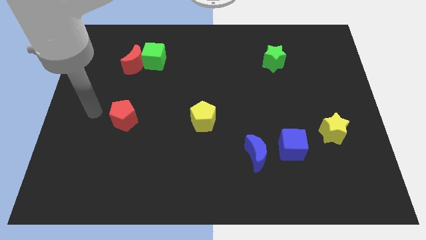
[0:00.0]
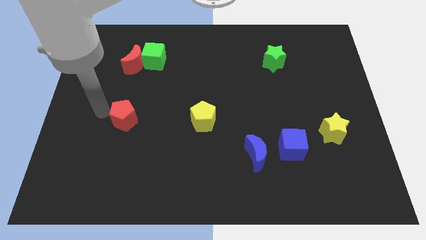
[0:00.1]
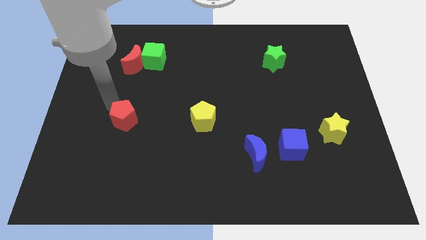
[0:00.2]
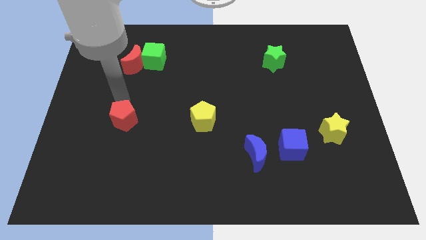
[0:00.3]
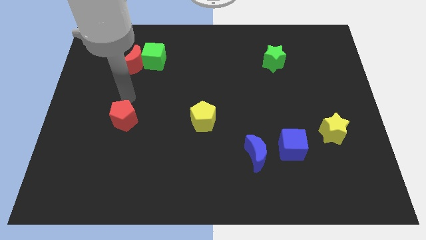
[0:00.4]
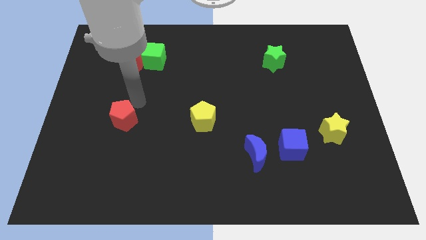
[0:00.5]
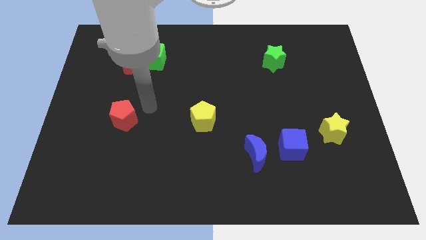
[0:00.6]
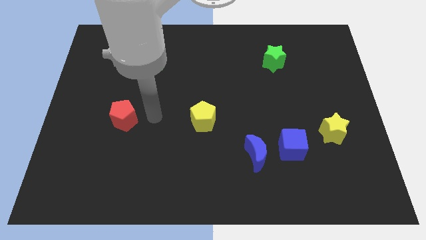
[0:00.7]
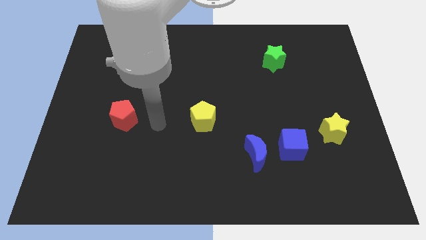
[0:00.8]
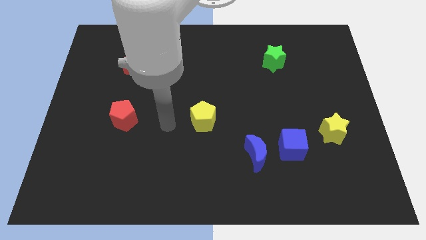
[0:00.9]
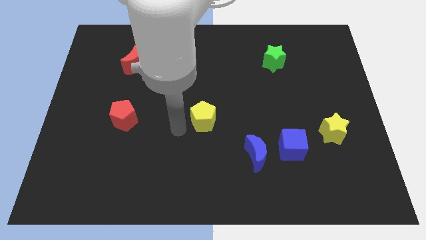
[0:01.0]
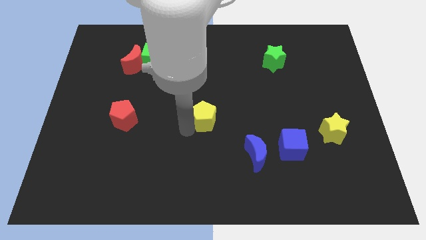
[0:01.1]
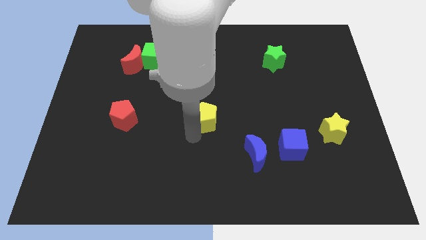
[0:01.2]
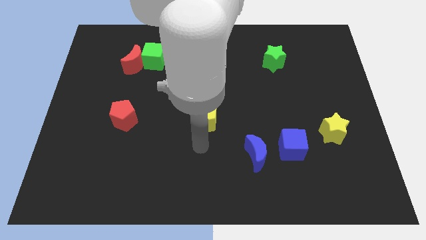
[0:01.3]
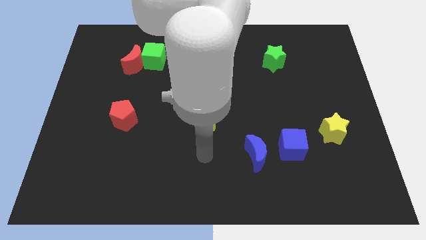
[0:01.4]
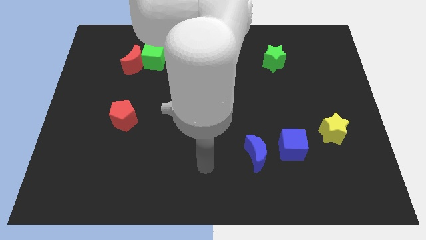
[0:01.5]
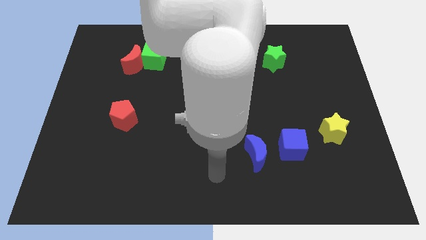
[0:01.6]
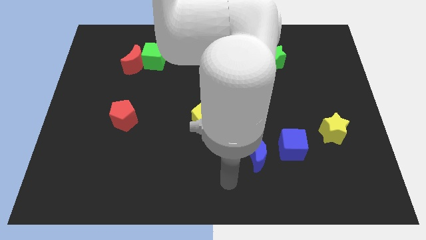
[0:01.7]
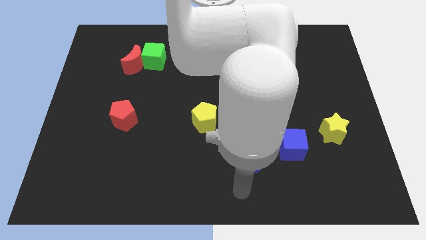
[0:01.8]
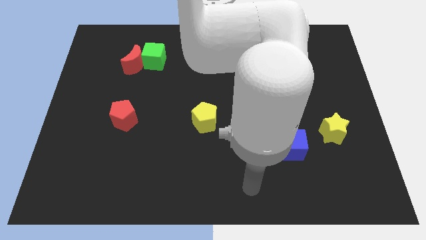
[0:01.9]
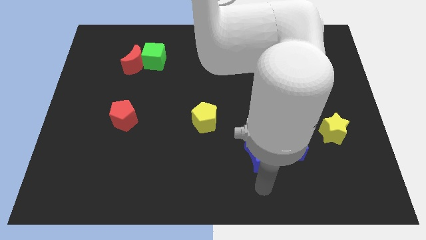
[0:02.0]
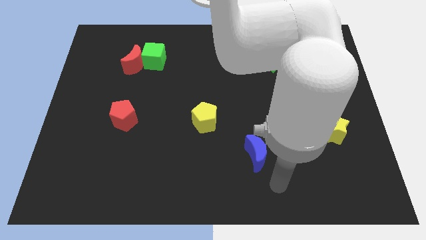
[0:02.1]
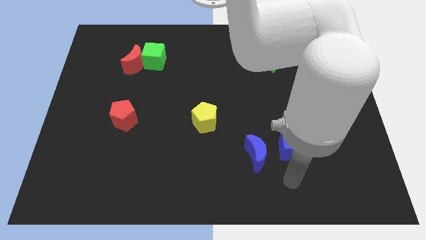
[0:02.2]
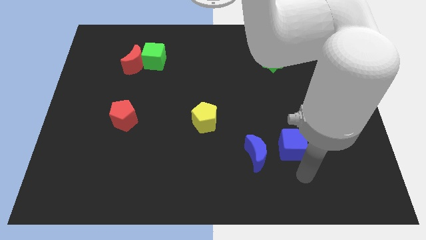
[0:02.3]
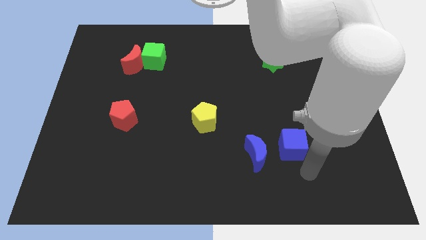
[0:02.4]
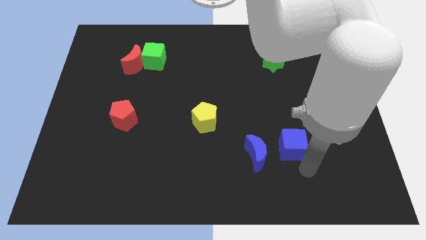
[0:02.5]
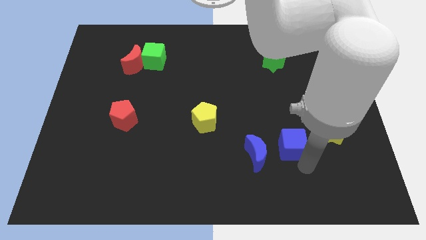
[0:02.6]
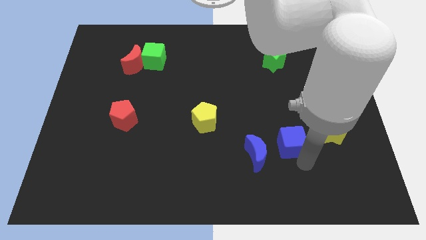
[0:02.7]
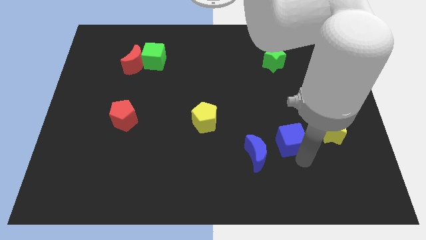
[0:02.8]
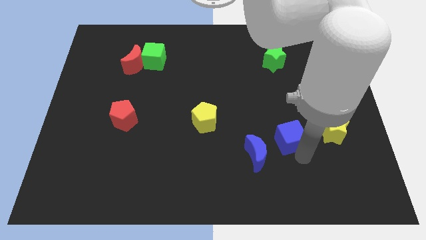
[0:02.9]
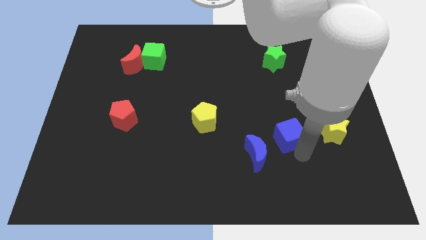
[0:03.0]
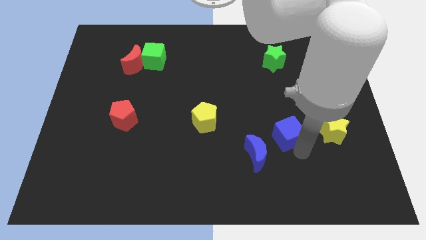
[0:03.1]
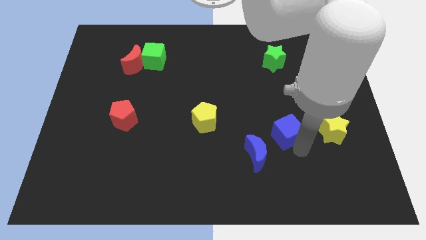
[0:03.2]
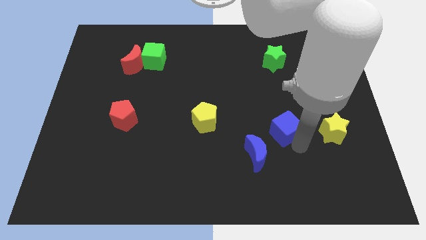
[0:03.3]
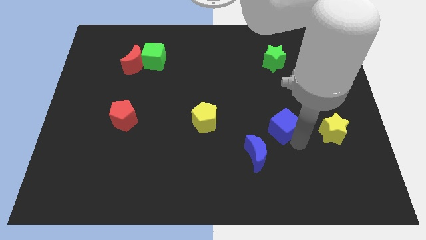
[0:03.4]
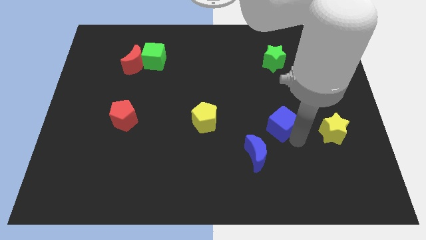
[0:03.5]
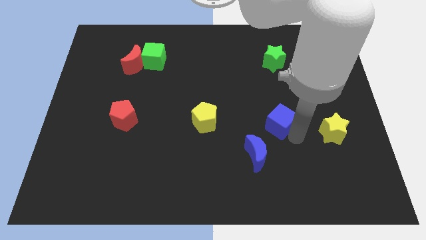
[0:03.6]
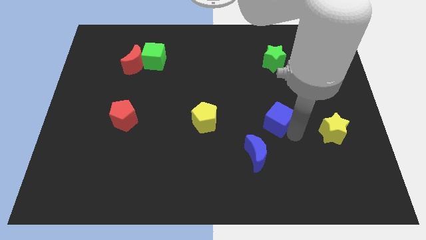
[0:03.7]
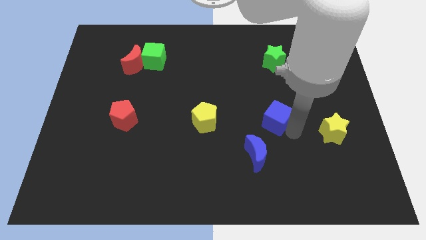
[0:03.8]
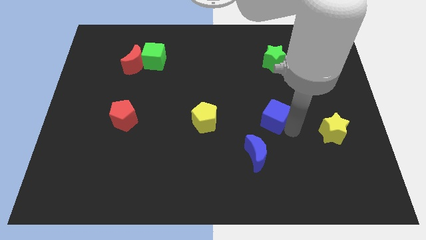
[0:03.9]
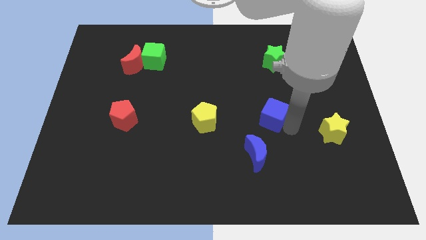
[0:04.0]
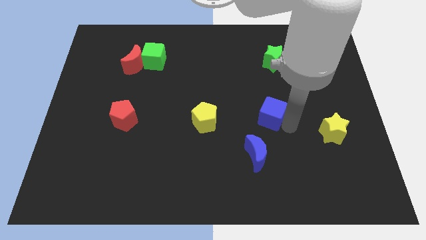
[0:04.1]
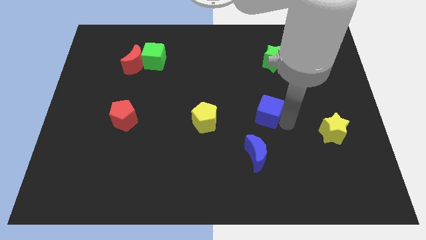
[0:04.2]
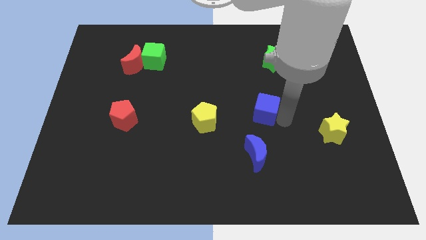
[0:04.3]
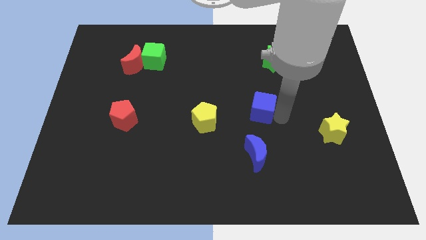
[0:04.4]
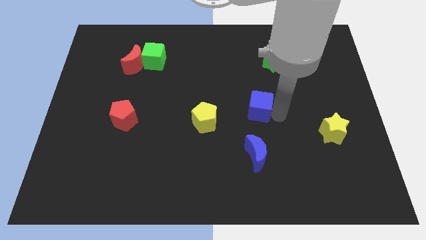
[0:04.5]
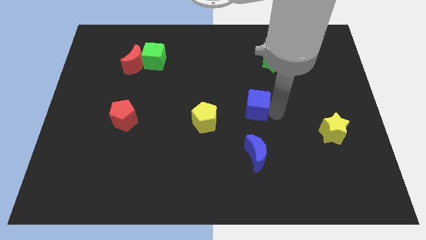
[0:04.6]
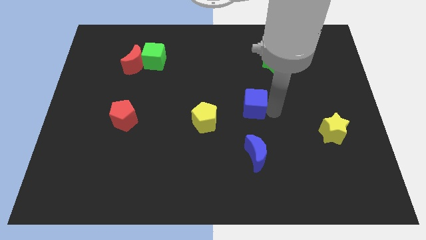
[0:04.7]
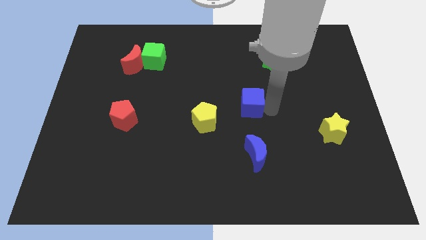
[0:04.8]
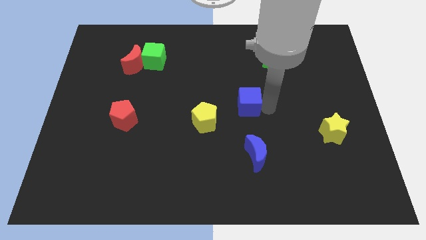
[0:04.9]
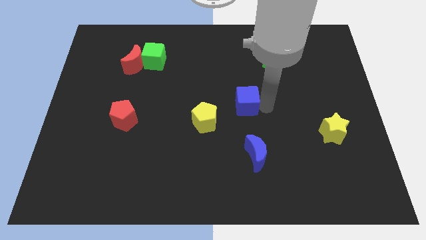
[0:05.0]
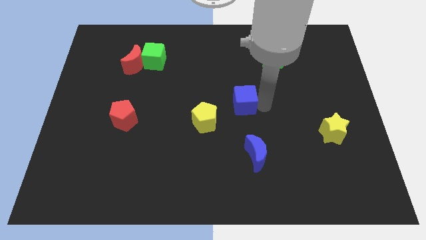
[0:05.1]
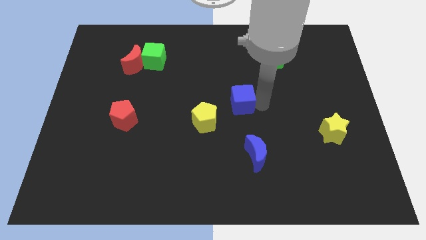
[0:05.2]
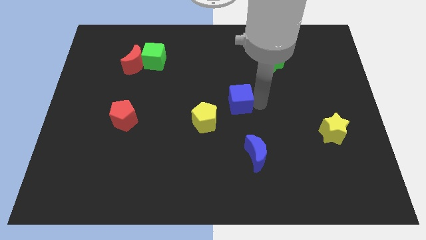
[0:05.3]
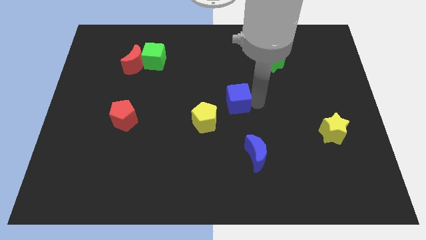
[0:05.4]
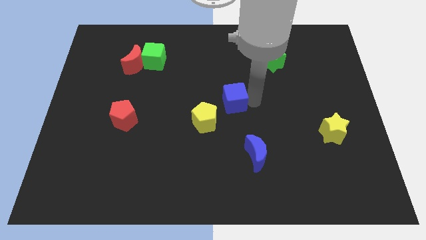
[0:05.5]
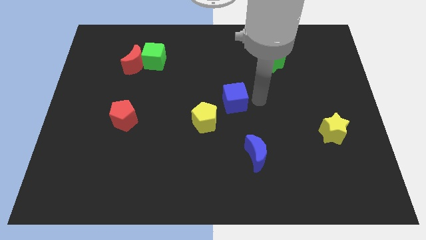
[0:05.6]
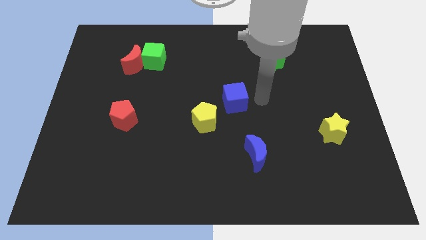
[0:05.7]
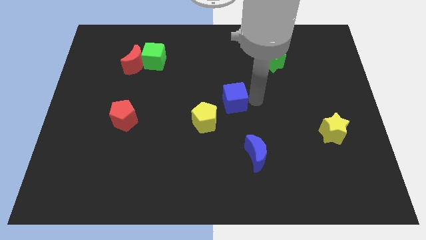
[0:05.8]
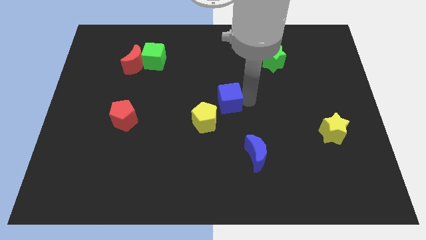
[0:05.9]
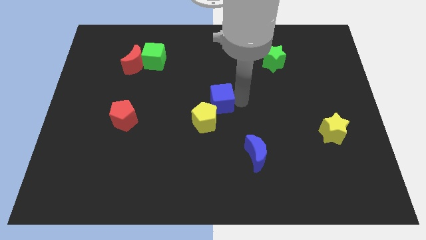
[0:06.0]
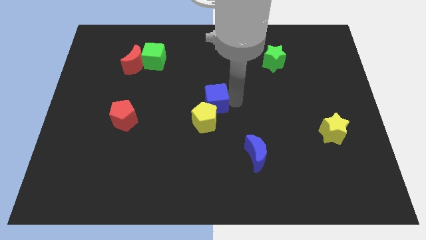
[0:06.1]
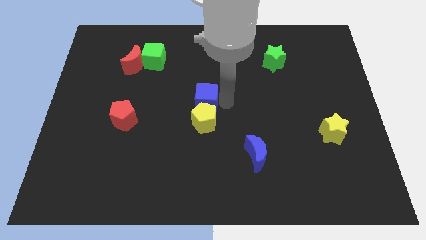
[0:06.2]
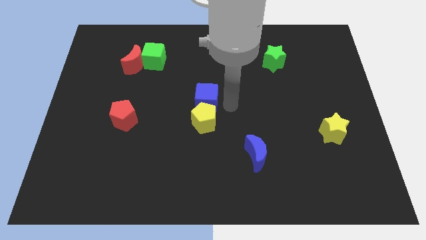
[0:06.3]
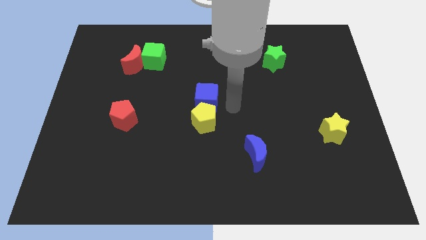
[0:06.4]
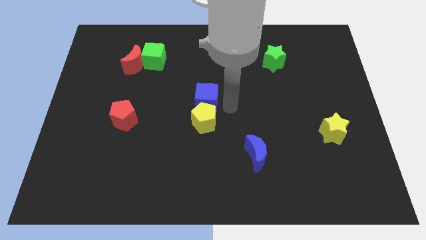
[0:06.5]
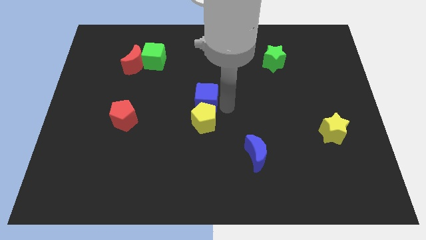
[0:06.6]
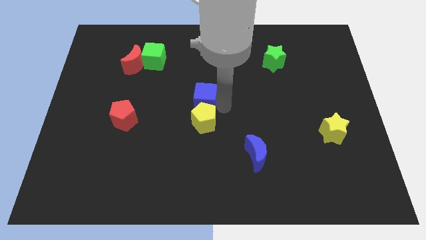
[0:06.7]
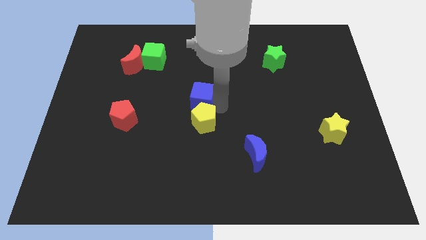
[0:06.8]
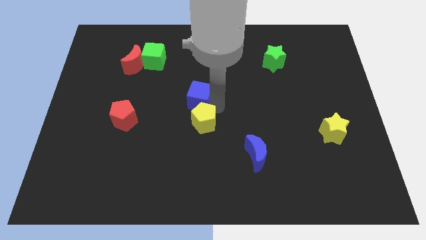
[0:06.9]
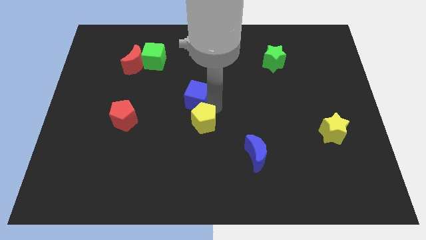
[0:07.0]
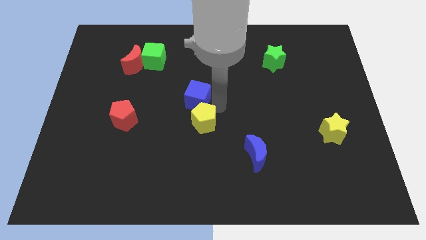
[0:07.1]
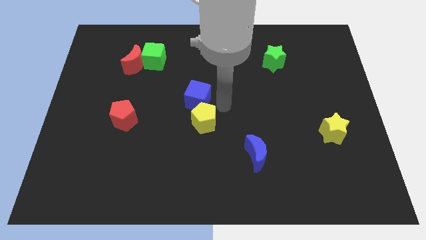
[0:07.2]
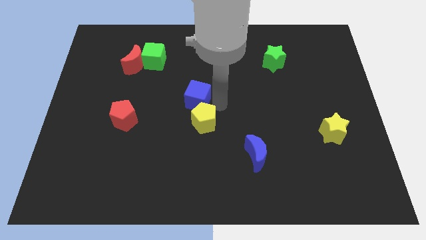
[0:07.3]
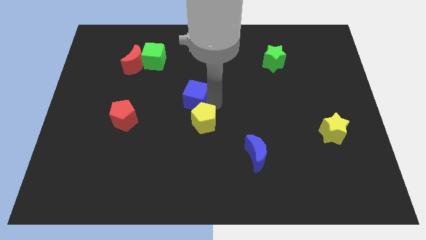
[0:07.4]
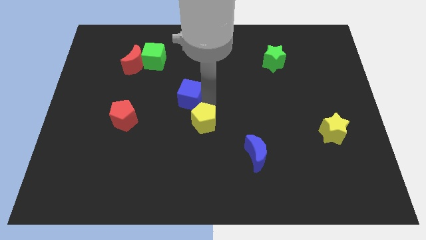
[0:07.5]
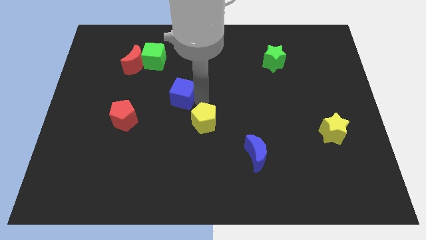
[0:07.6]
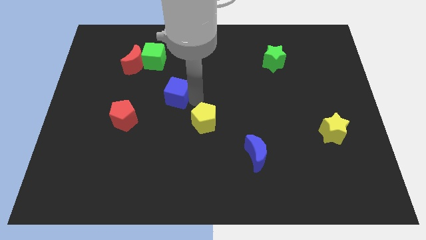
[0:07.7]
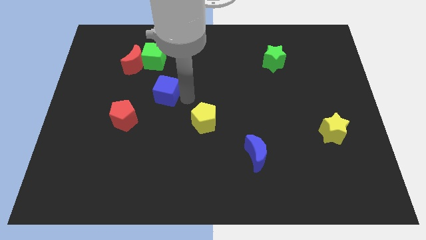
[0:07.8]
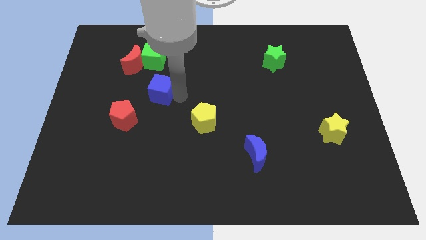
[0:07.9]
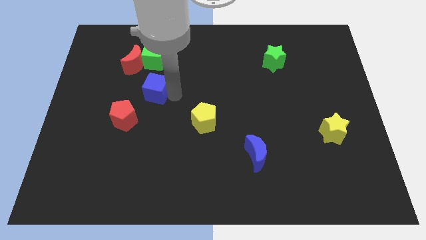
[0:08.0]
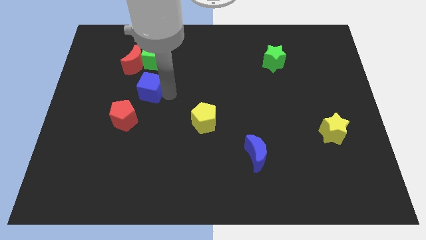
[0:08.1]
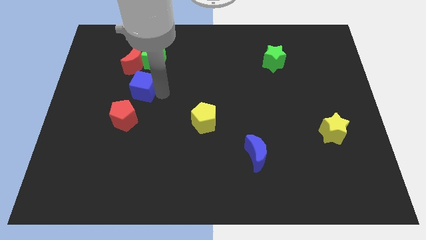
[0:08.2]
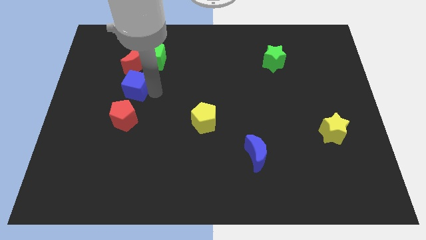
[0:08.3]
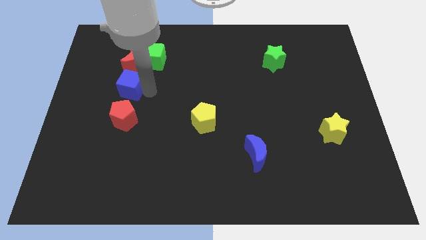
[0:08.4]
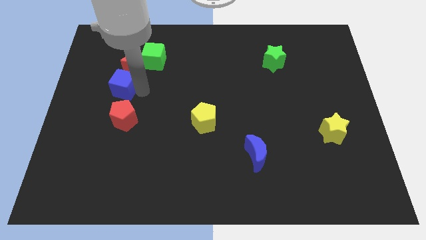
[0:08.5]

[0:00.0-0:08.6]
move the blue cube to the bottom left side of the red moon

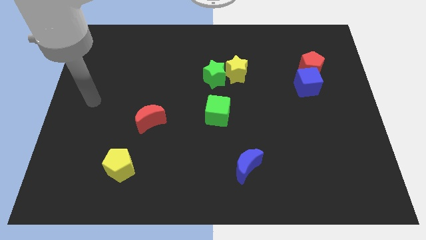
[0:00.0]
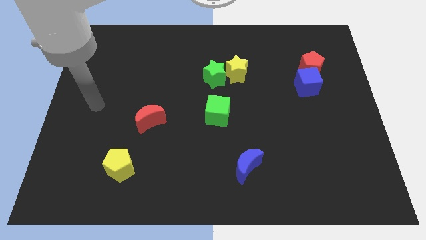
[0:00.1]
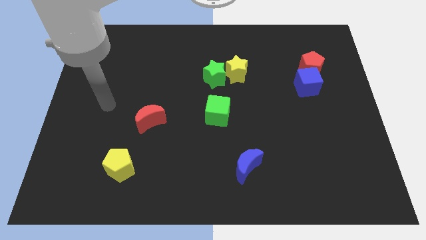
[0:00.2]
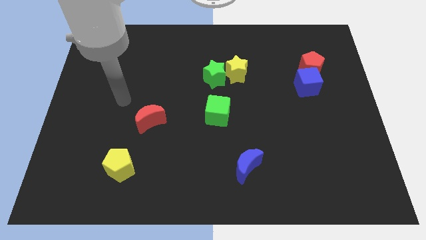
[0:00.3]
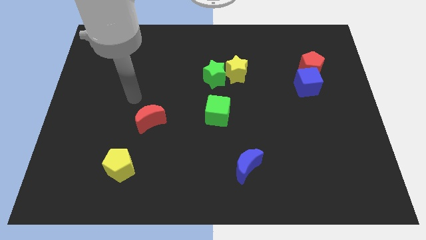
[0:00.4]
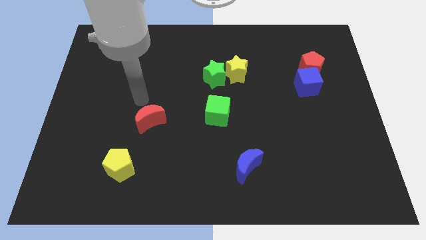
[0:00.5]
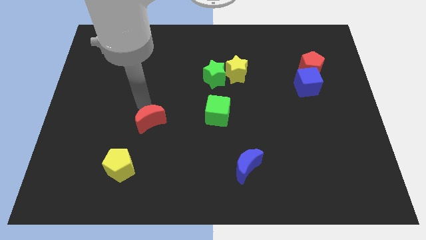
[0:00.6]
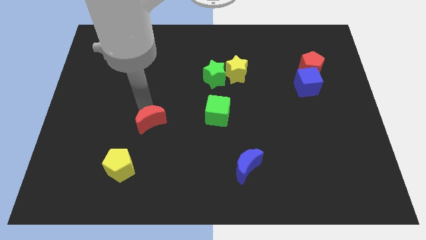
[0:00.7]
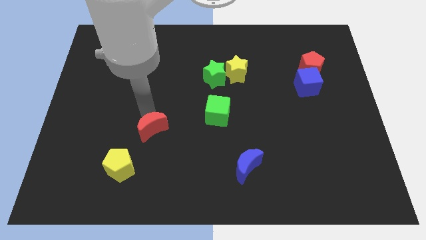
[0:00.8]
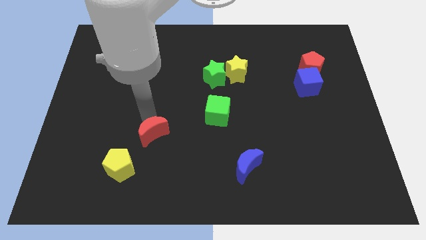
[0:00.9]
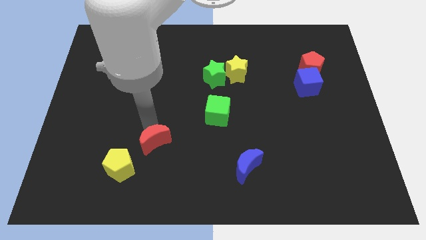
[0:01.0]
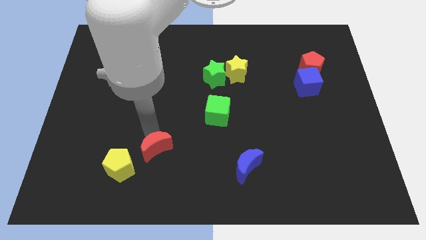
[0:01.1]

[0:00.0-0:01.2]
move the red moon just right of the yellow pentagon
